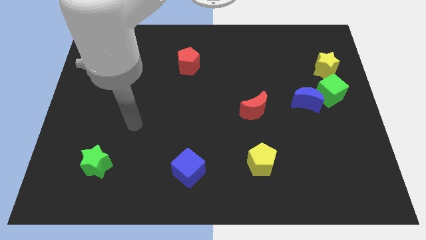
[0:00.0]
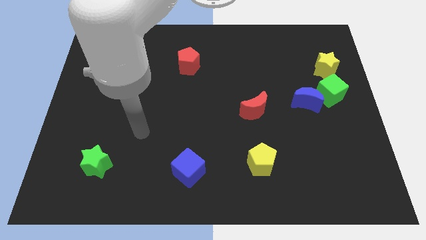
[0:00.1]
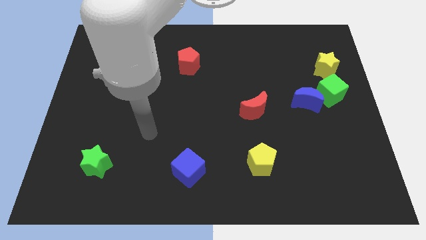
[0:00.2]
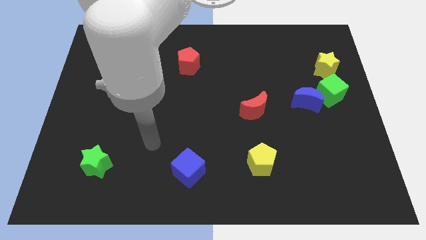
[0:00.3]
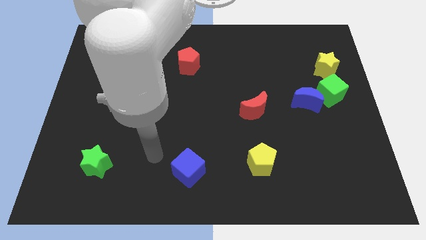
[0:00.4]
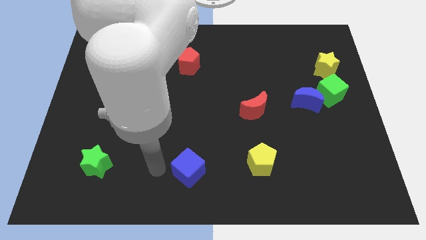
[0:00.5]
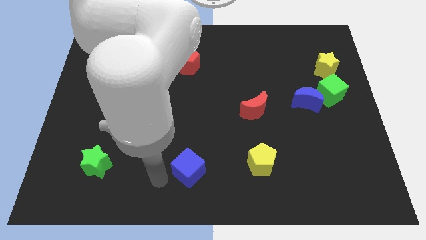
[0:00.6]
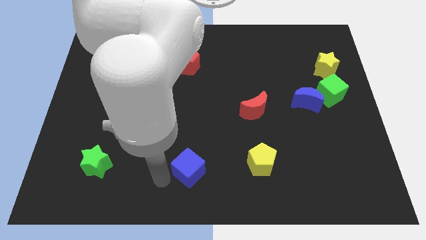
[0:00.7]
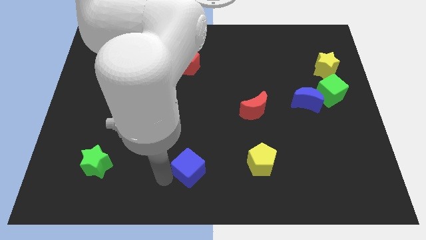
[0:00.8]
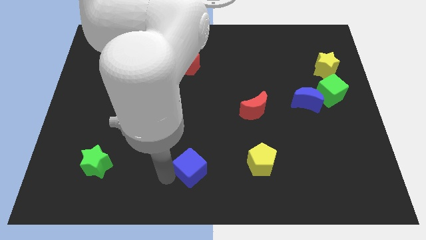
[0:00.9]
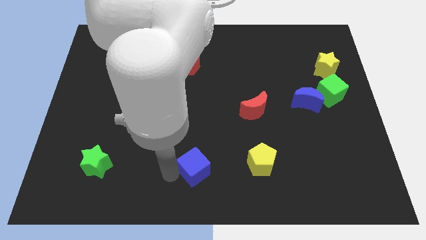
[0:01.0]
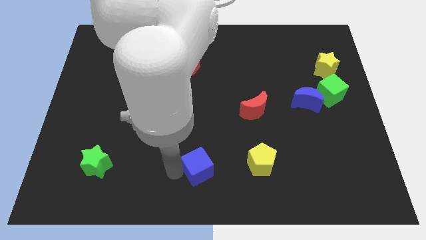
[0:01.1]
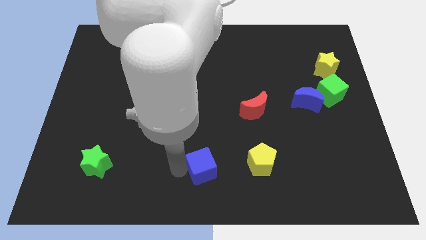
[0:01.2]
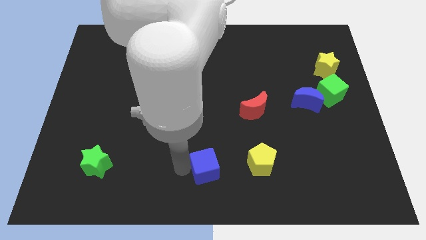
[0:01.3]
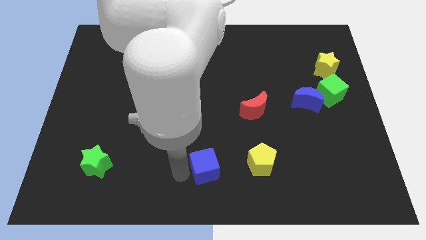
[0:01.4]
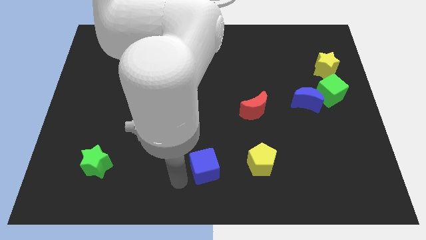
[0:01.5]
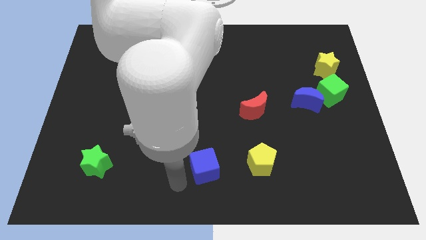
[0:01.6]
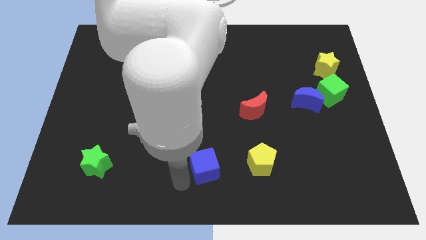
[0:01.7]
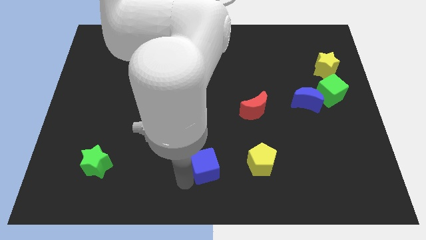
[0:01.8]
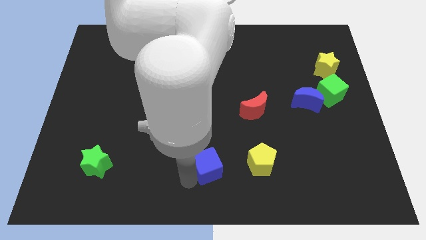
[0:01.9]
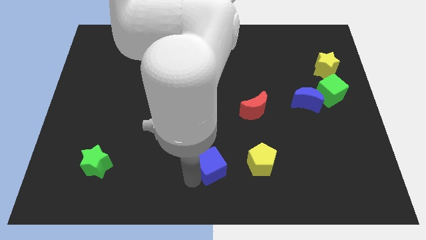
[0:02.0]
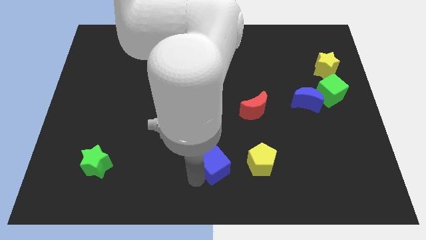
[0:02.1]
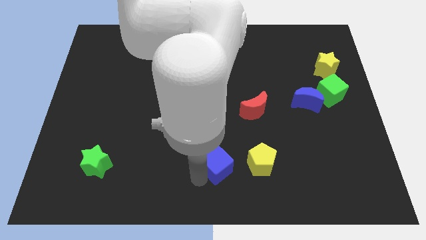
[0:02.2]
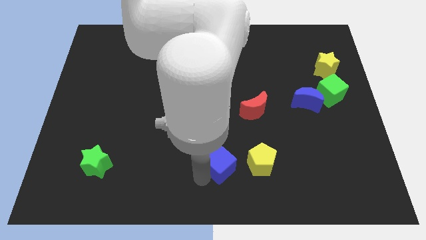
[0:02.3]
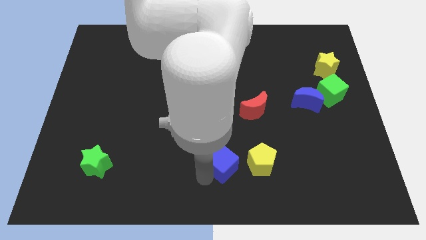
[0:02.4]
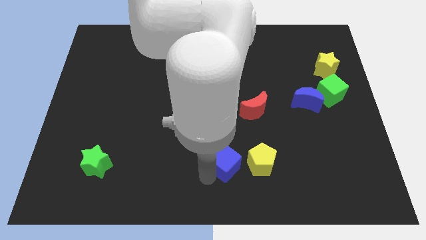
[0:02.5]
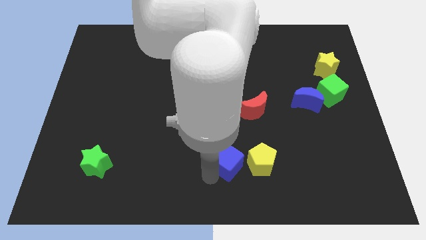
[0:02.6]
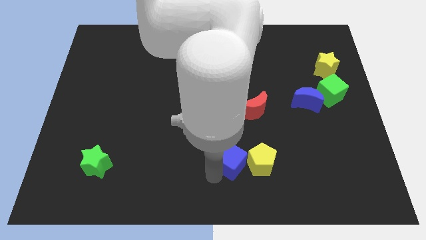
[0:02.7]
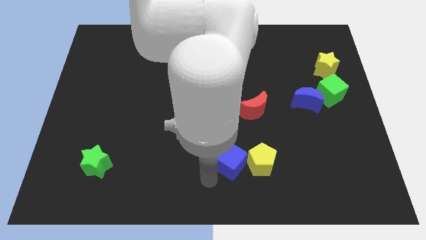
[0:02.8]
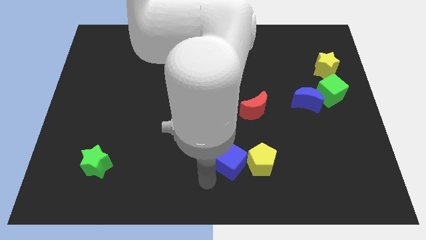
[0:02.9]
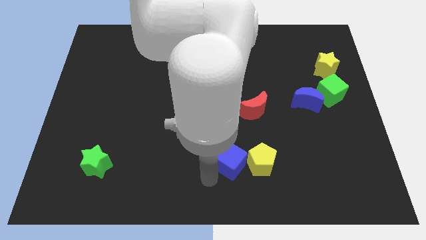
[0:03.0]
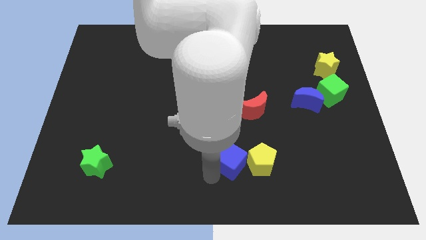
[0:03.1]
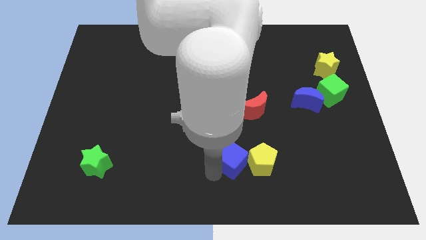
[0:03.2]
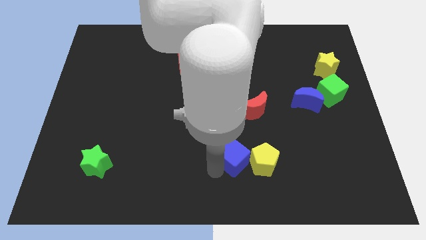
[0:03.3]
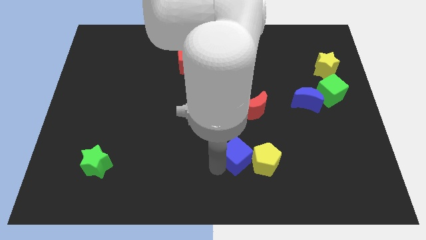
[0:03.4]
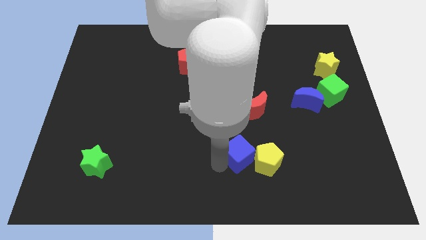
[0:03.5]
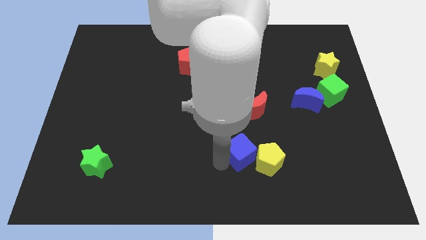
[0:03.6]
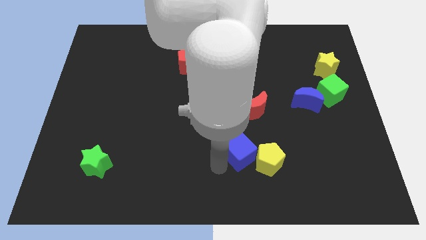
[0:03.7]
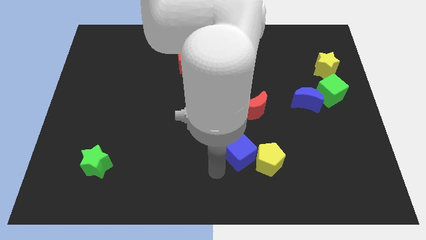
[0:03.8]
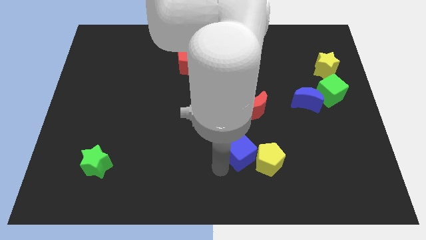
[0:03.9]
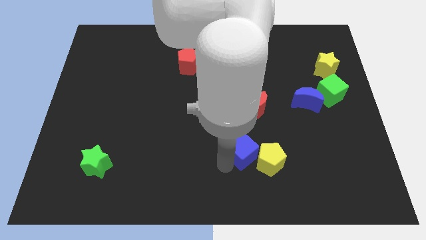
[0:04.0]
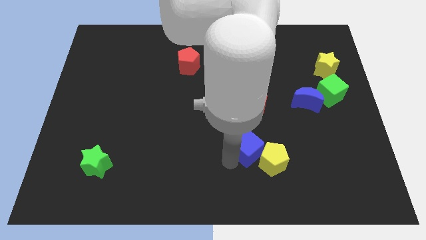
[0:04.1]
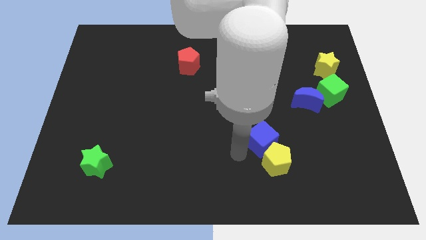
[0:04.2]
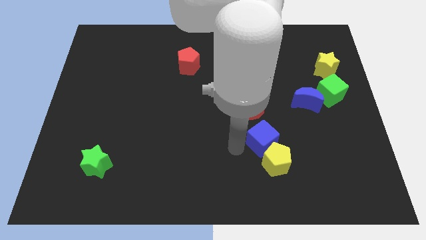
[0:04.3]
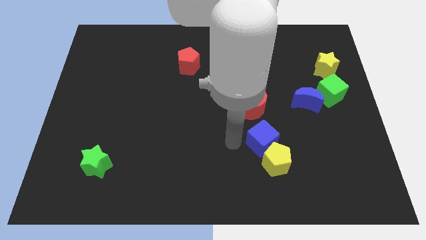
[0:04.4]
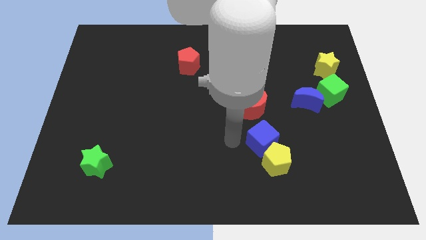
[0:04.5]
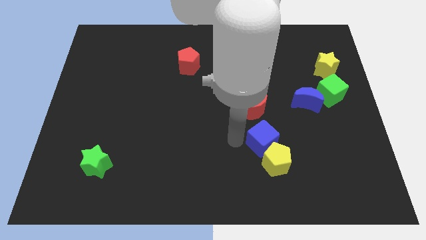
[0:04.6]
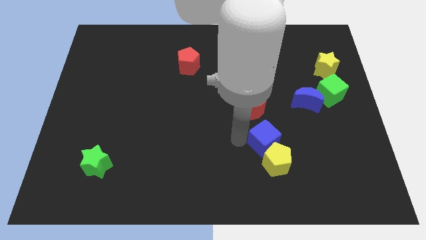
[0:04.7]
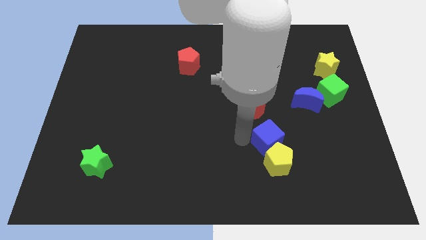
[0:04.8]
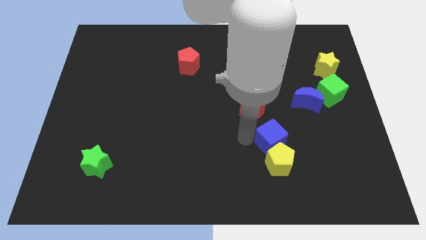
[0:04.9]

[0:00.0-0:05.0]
move the blue cube to the top right of the yellow pentagon

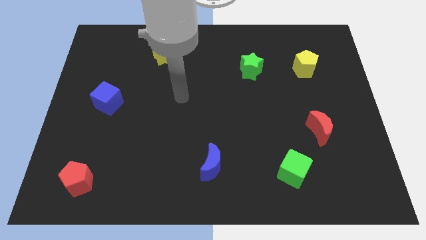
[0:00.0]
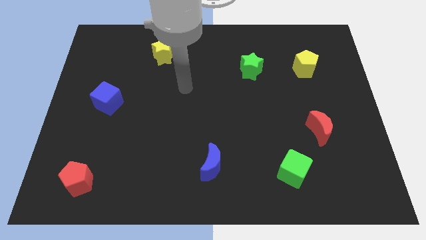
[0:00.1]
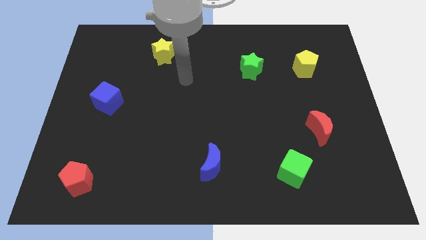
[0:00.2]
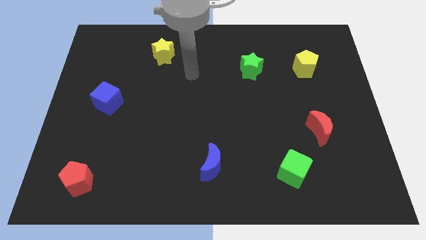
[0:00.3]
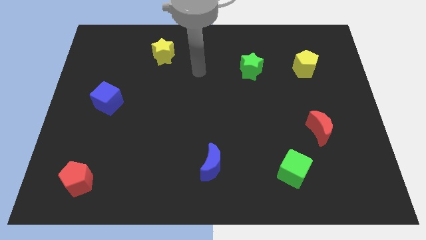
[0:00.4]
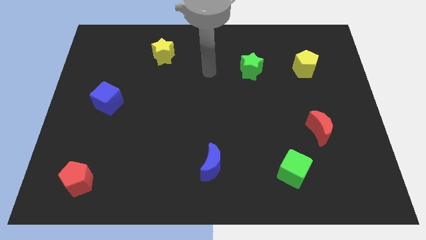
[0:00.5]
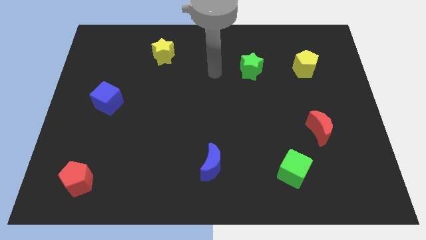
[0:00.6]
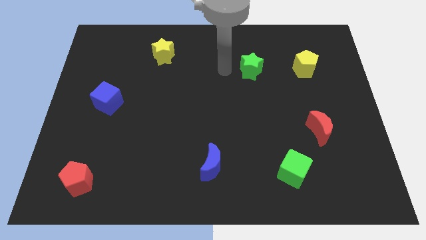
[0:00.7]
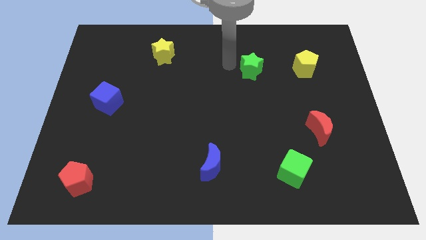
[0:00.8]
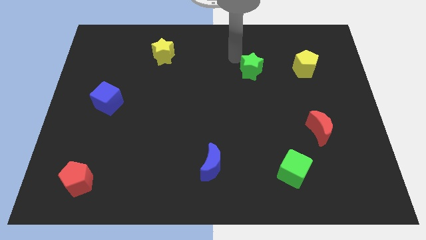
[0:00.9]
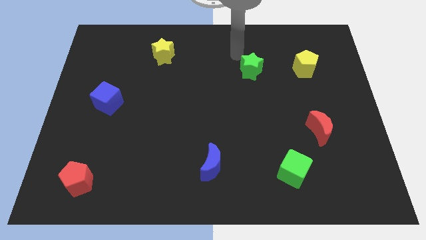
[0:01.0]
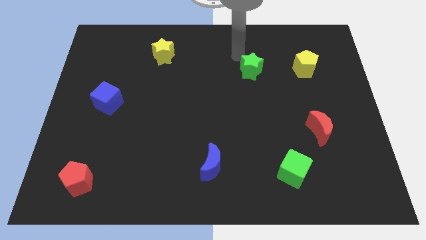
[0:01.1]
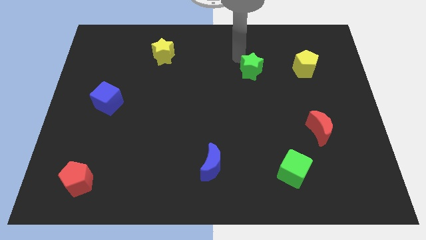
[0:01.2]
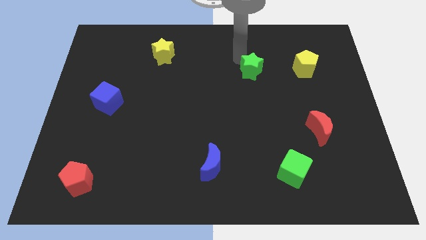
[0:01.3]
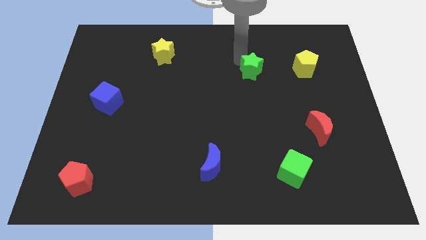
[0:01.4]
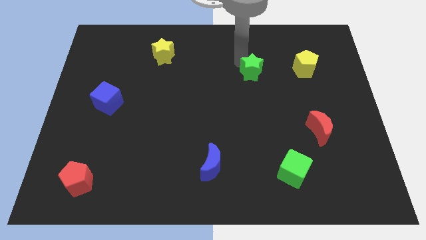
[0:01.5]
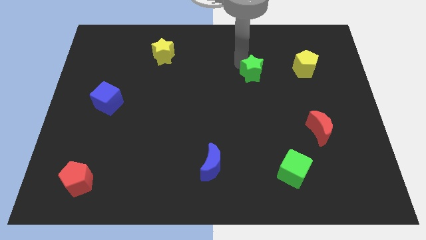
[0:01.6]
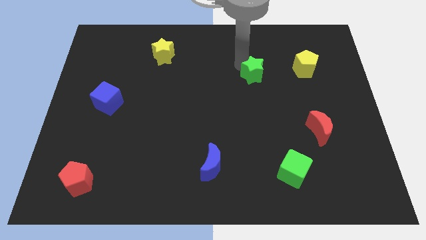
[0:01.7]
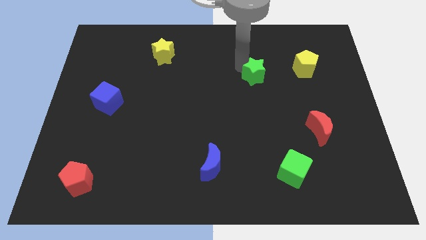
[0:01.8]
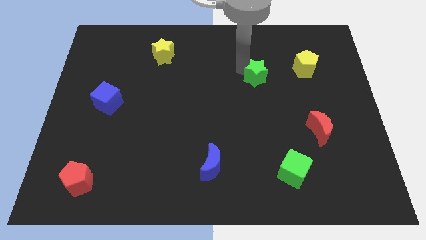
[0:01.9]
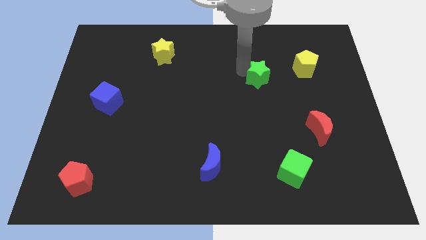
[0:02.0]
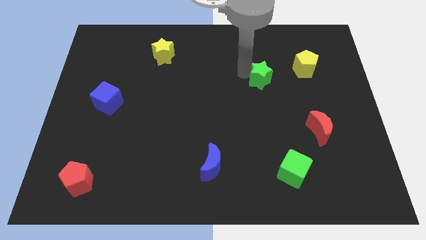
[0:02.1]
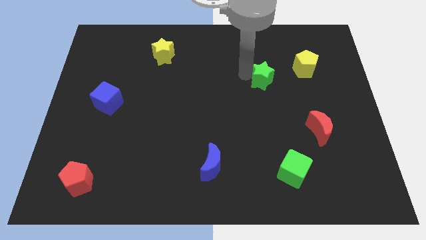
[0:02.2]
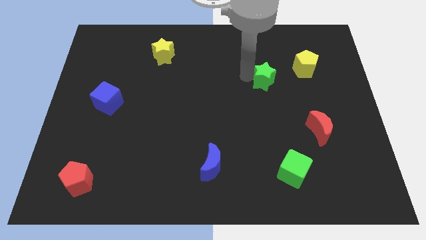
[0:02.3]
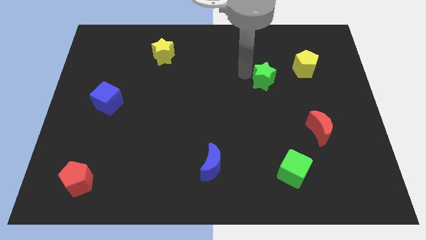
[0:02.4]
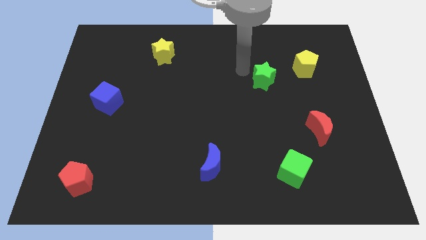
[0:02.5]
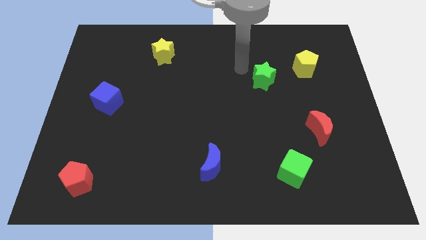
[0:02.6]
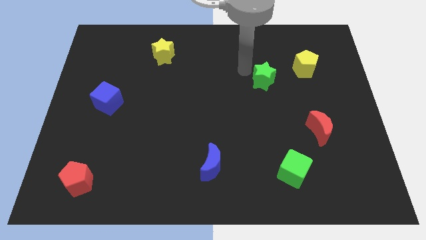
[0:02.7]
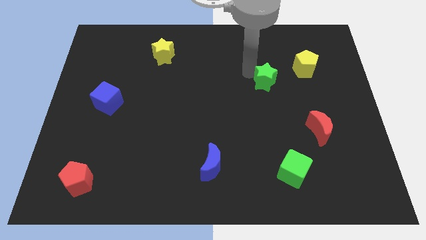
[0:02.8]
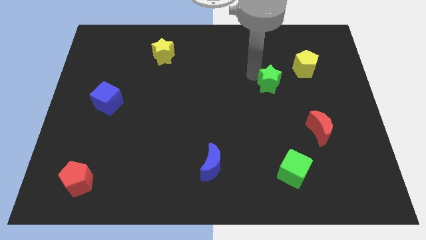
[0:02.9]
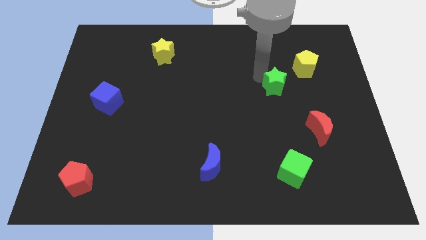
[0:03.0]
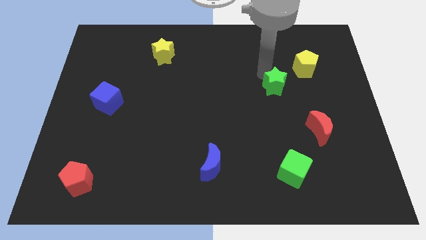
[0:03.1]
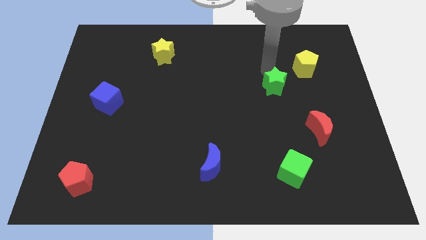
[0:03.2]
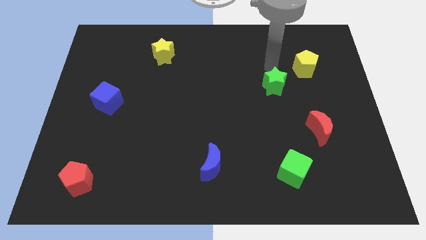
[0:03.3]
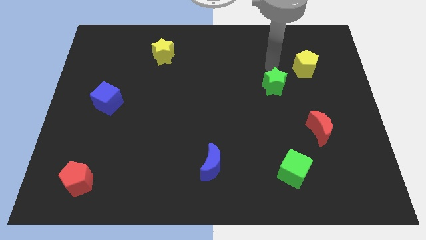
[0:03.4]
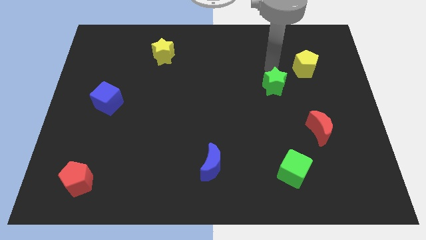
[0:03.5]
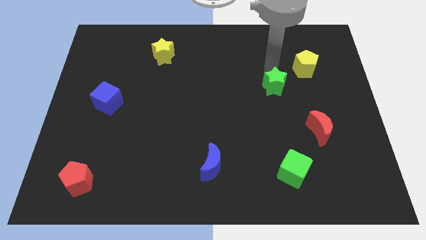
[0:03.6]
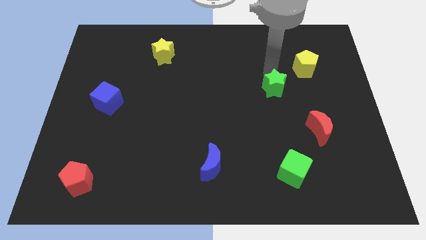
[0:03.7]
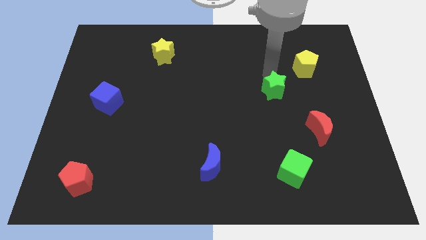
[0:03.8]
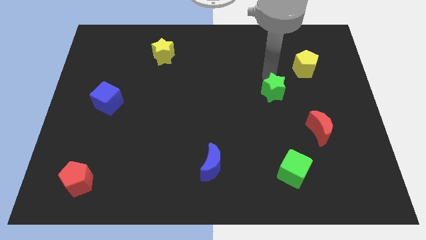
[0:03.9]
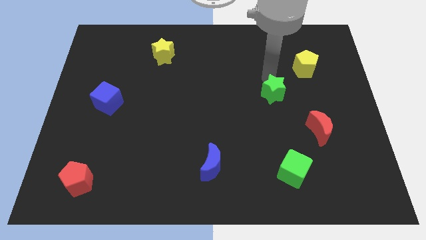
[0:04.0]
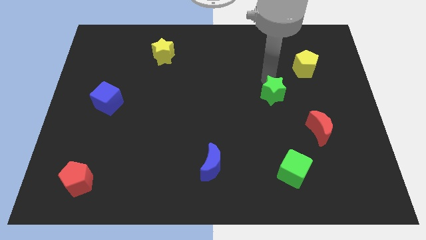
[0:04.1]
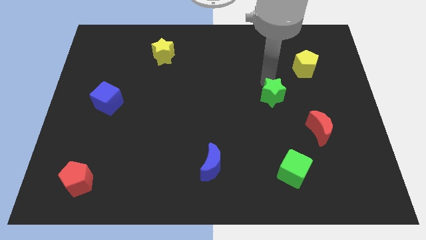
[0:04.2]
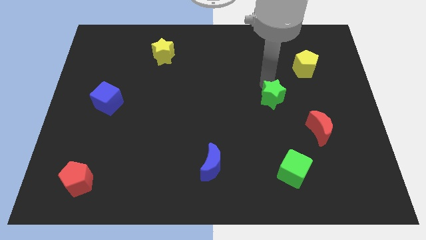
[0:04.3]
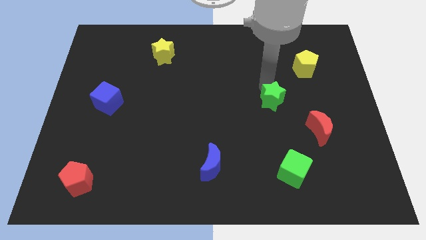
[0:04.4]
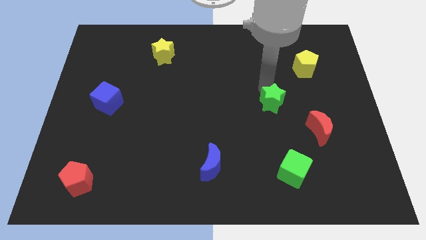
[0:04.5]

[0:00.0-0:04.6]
put the green star to the top left side of the red moon
